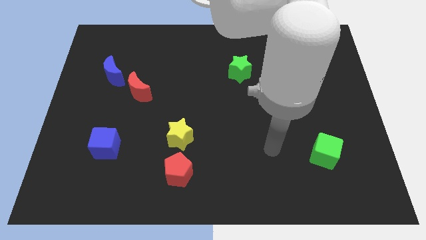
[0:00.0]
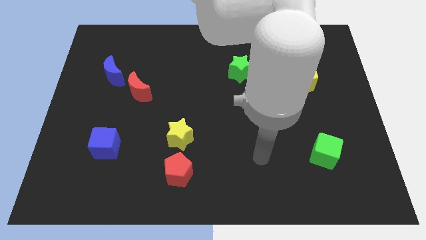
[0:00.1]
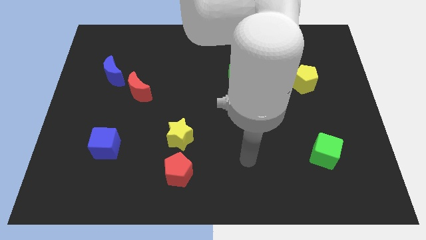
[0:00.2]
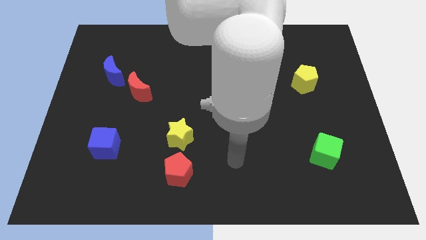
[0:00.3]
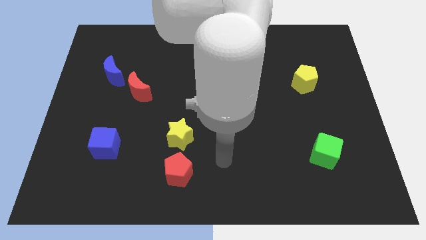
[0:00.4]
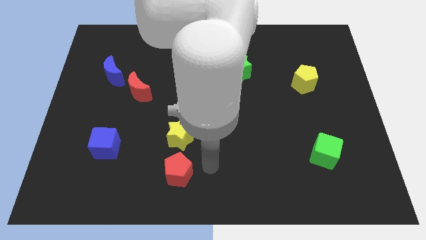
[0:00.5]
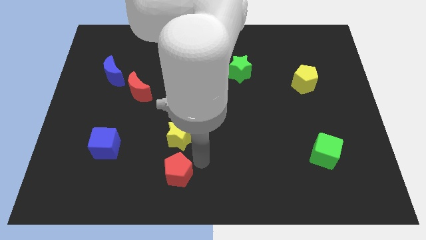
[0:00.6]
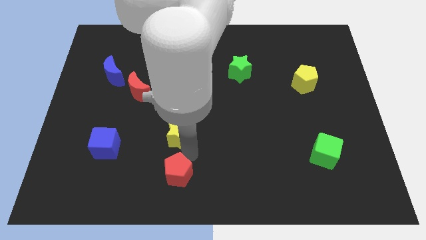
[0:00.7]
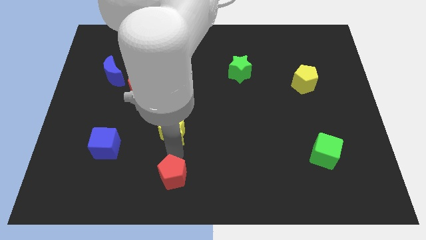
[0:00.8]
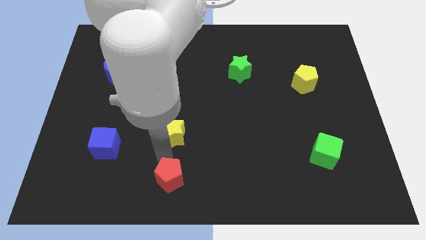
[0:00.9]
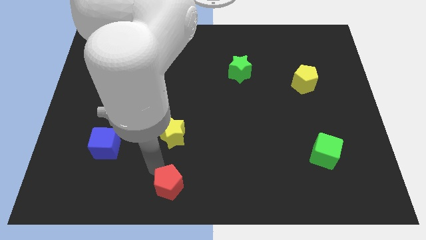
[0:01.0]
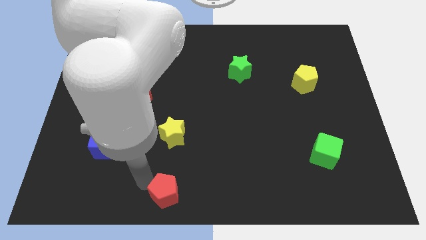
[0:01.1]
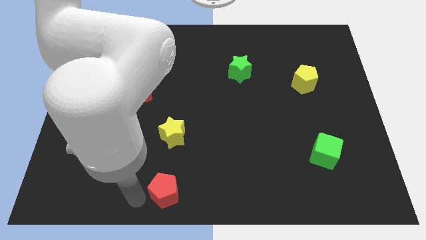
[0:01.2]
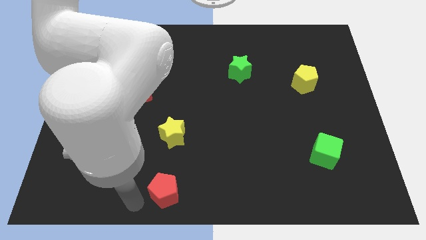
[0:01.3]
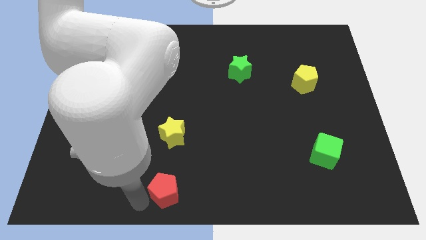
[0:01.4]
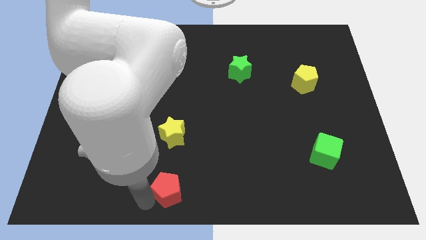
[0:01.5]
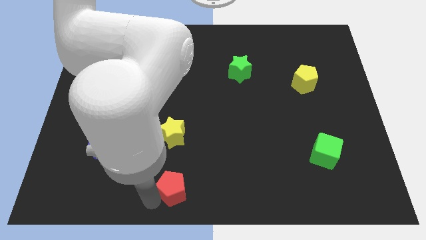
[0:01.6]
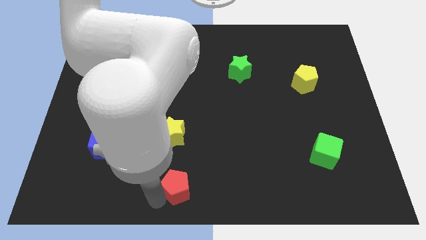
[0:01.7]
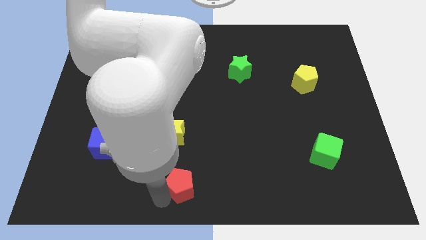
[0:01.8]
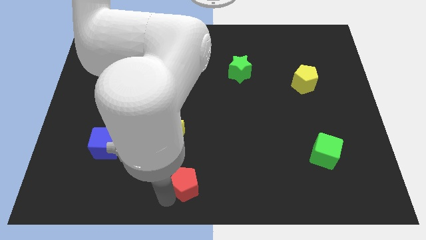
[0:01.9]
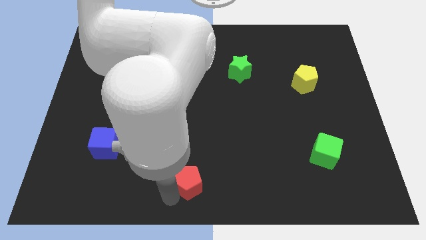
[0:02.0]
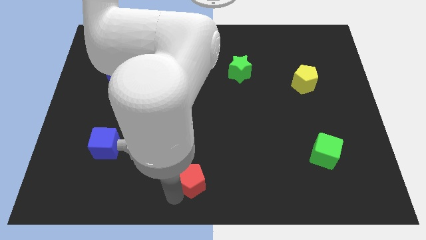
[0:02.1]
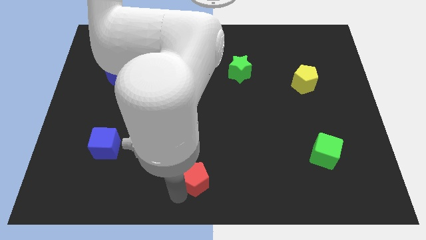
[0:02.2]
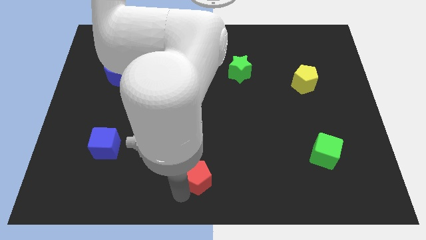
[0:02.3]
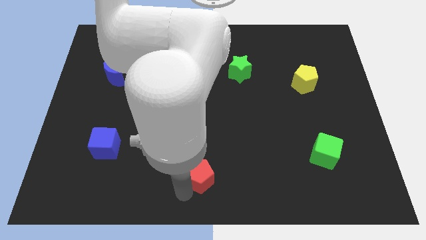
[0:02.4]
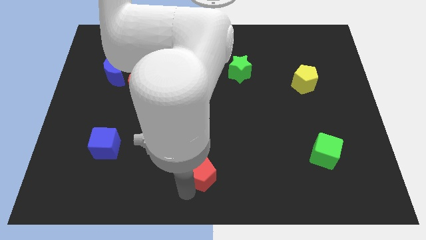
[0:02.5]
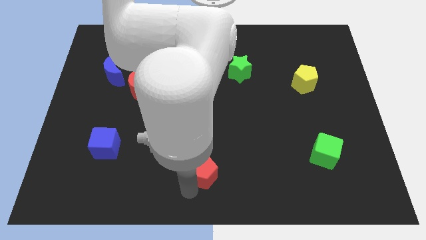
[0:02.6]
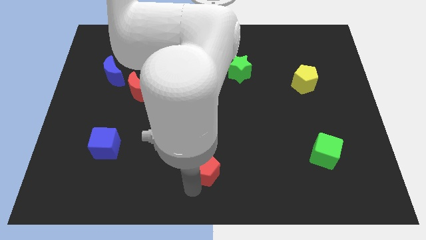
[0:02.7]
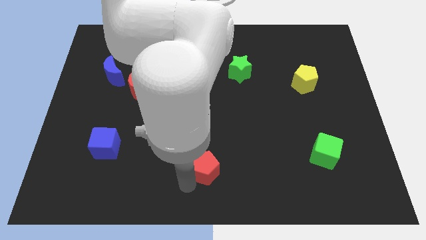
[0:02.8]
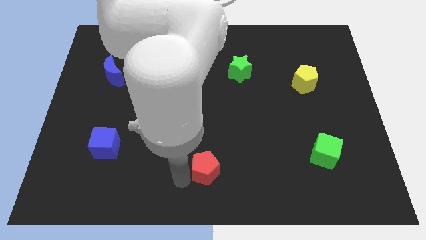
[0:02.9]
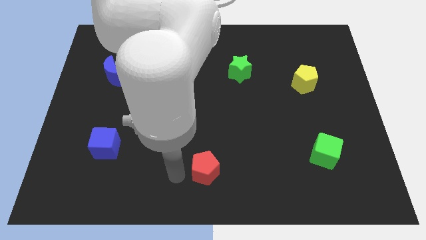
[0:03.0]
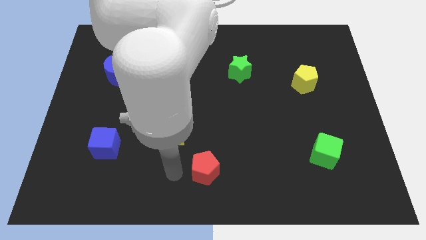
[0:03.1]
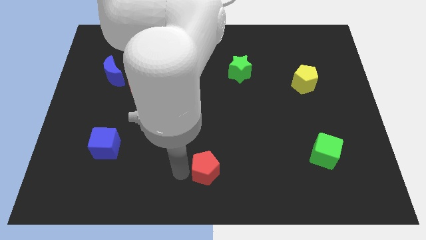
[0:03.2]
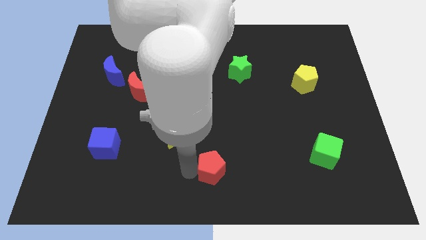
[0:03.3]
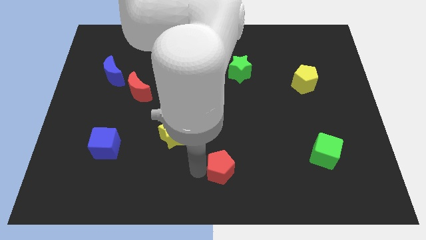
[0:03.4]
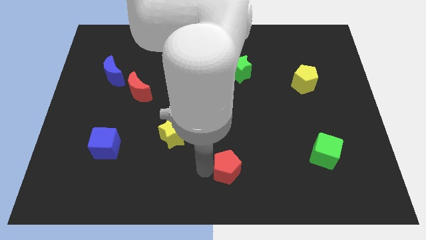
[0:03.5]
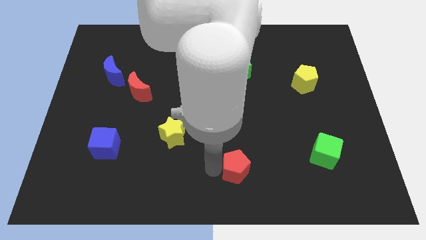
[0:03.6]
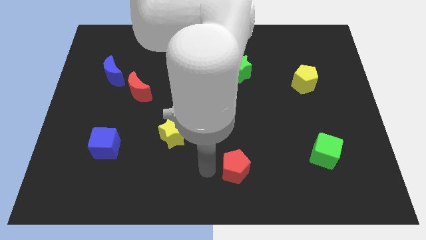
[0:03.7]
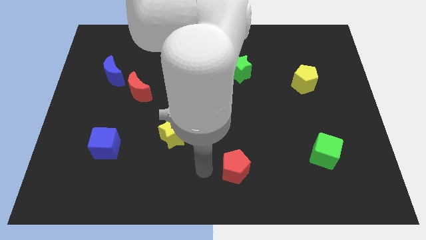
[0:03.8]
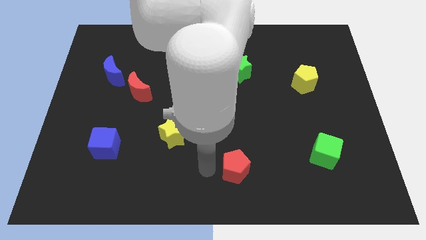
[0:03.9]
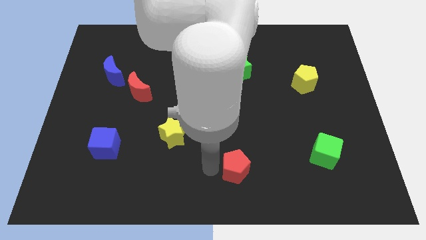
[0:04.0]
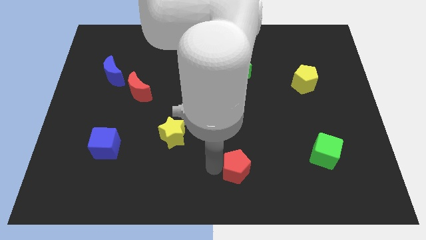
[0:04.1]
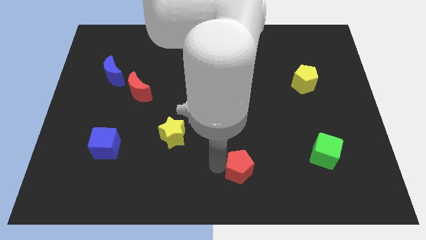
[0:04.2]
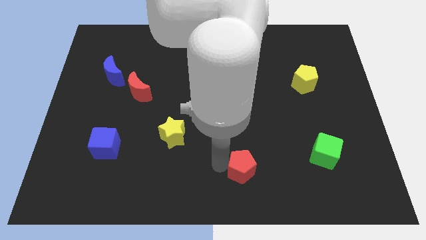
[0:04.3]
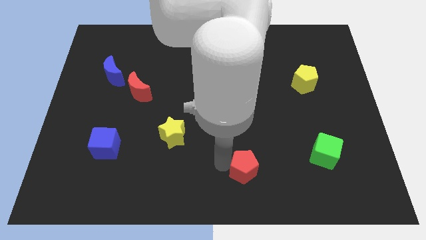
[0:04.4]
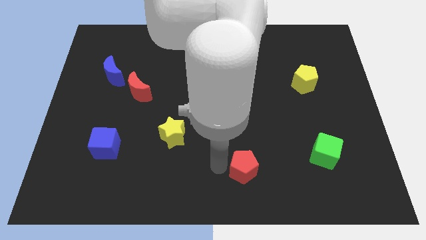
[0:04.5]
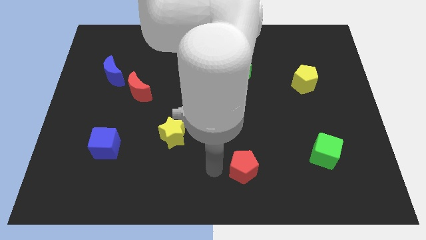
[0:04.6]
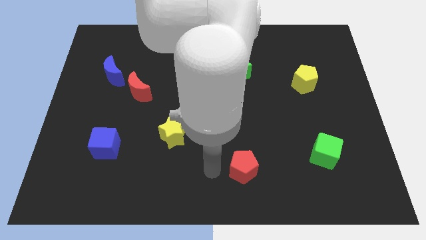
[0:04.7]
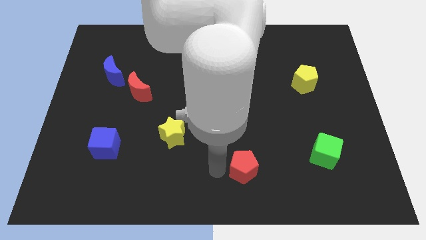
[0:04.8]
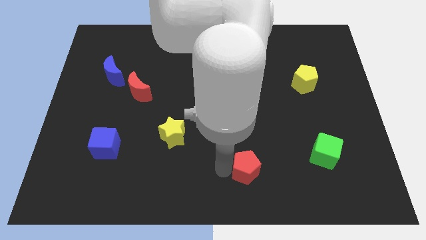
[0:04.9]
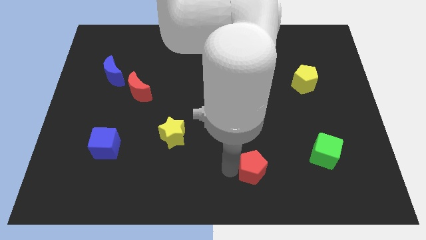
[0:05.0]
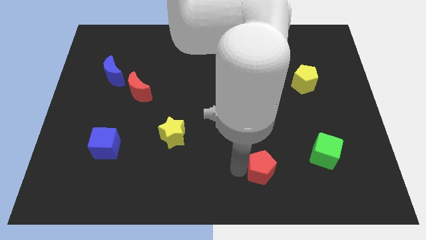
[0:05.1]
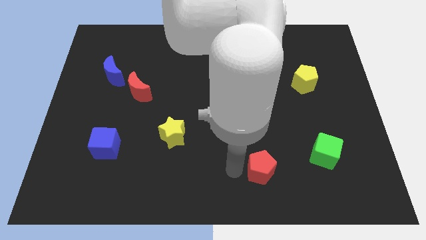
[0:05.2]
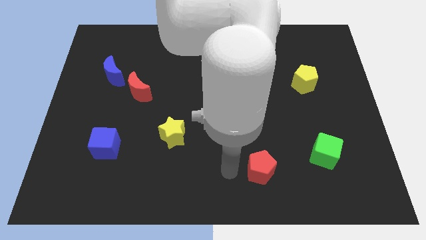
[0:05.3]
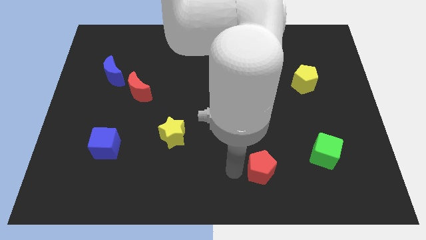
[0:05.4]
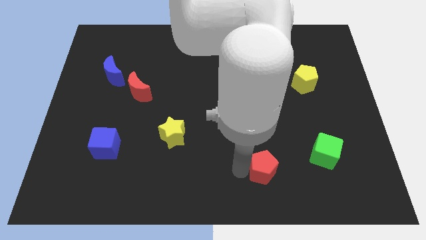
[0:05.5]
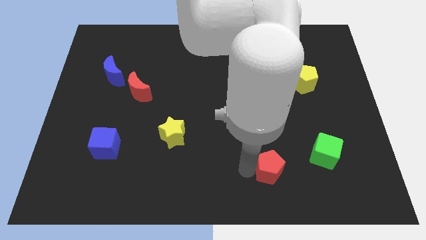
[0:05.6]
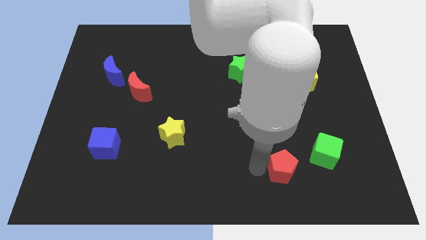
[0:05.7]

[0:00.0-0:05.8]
slide the red pentagon to the right

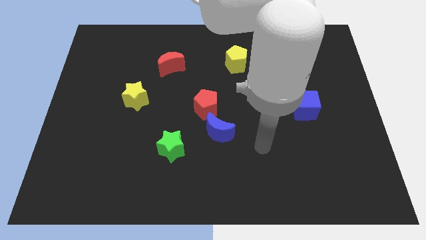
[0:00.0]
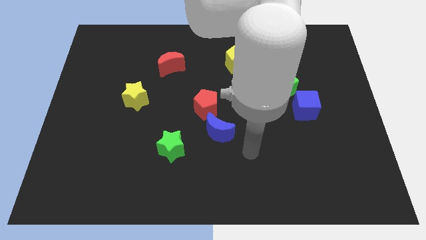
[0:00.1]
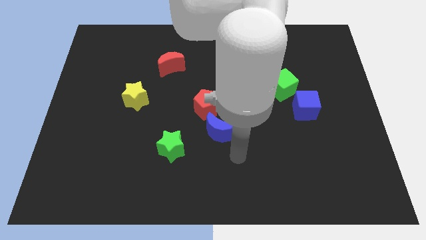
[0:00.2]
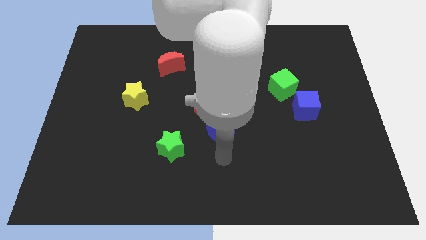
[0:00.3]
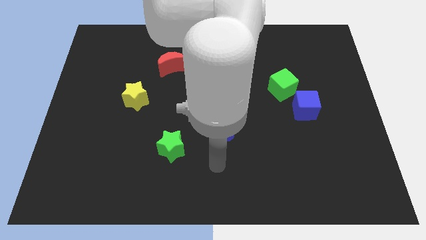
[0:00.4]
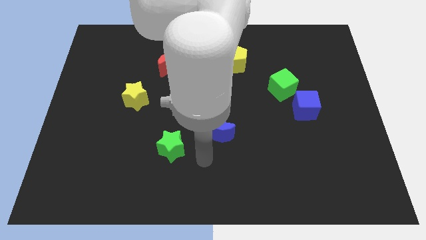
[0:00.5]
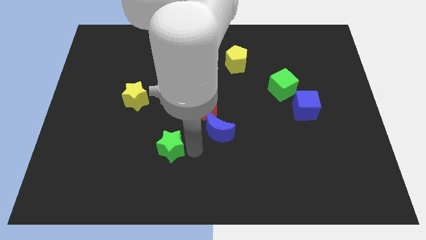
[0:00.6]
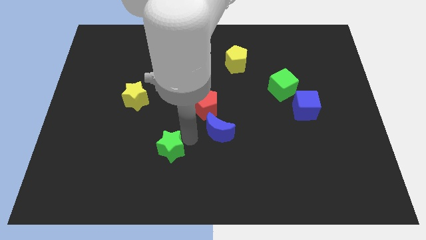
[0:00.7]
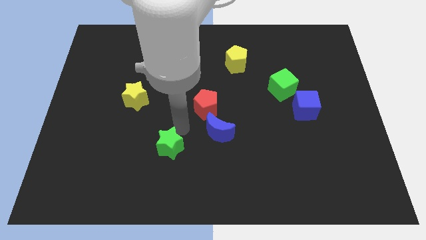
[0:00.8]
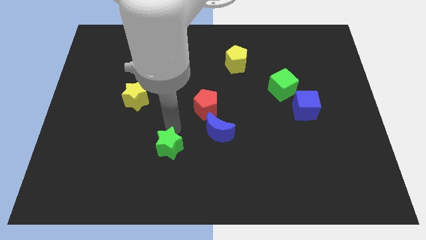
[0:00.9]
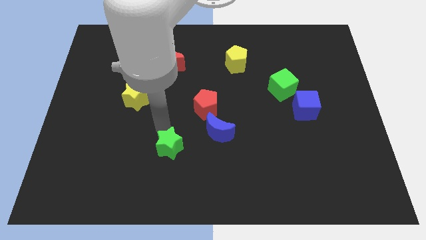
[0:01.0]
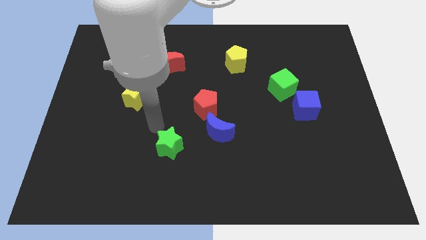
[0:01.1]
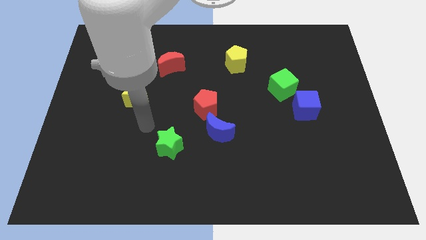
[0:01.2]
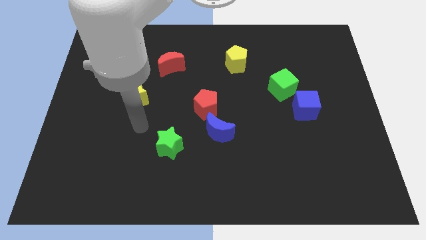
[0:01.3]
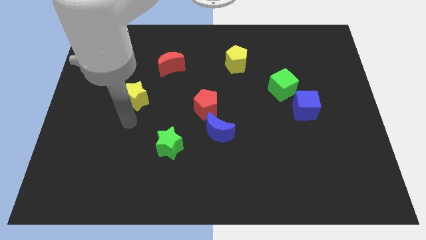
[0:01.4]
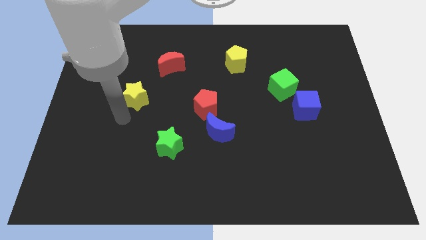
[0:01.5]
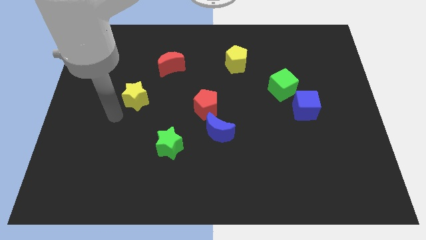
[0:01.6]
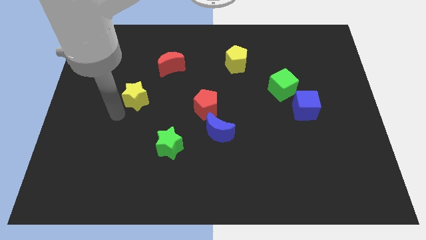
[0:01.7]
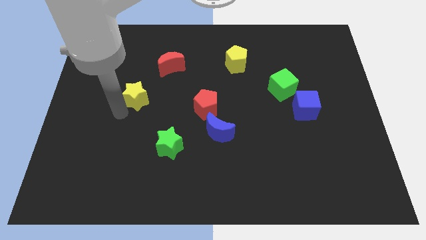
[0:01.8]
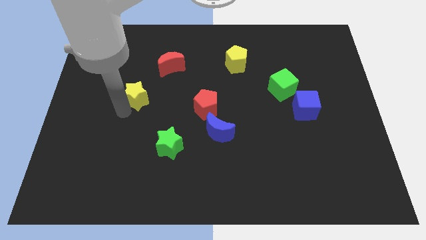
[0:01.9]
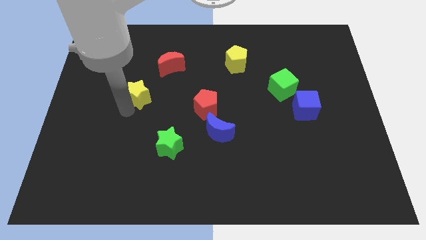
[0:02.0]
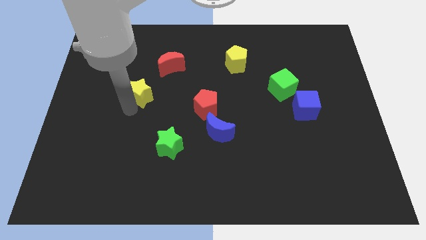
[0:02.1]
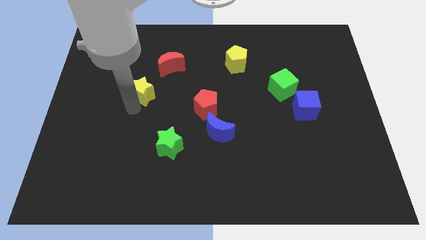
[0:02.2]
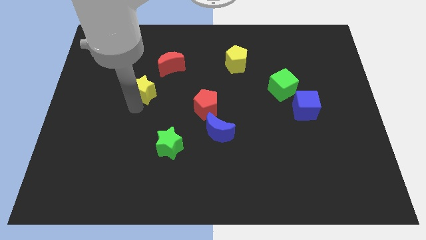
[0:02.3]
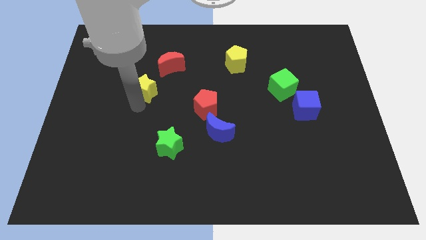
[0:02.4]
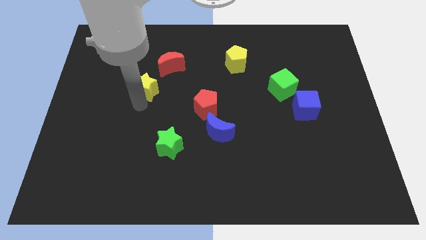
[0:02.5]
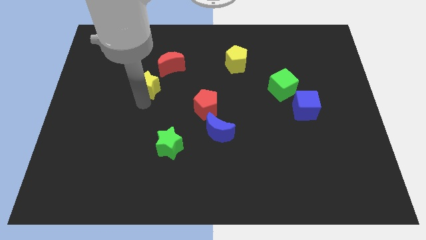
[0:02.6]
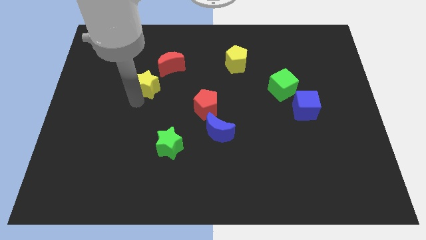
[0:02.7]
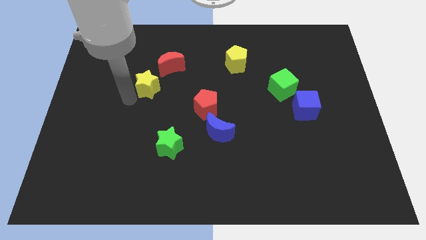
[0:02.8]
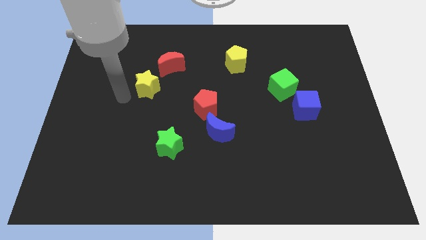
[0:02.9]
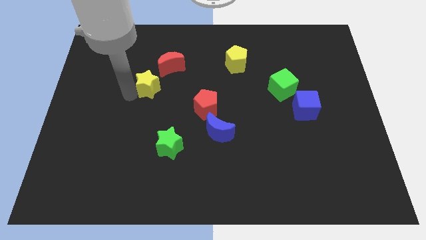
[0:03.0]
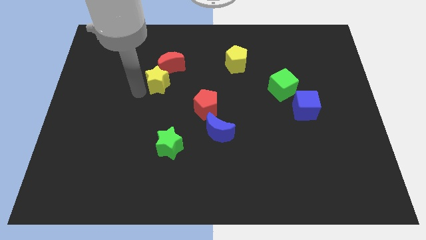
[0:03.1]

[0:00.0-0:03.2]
slightly slide the yellow star diagonally upwards and right
